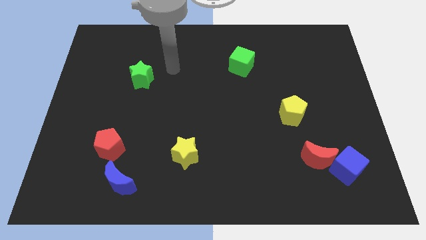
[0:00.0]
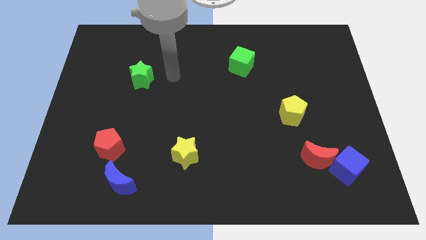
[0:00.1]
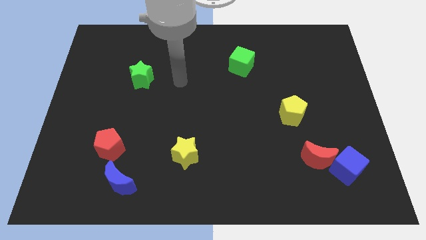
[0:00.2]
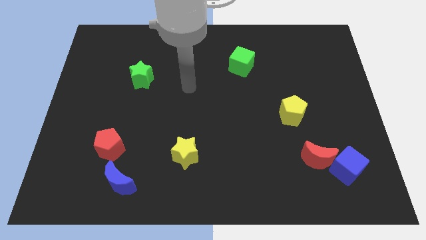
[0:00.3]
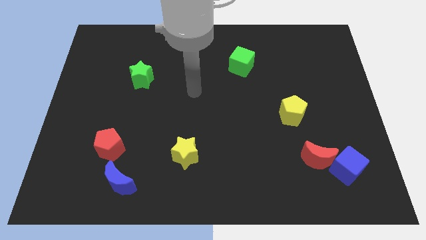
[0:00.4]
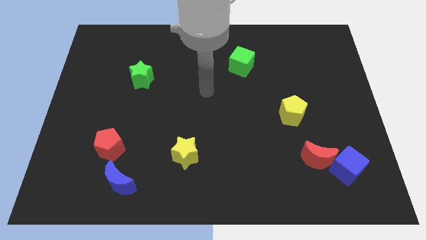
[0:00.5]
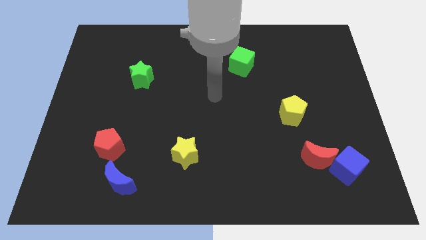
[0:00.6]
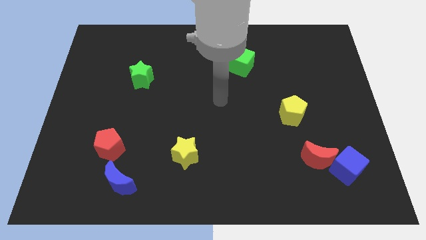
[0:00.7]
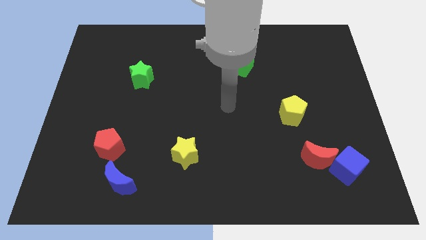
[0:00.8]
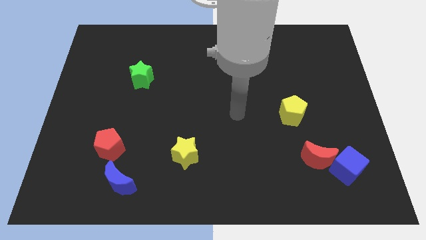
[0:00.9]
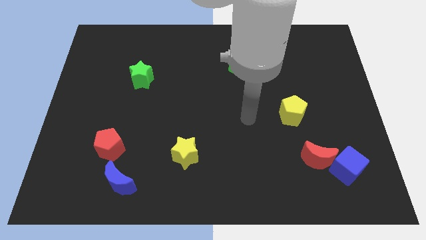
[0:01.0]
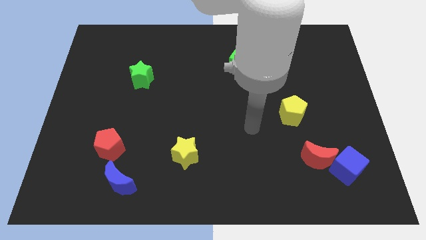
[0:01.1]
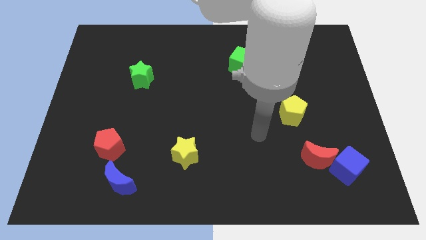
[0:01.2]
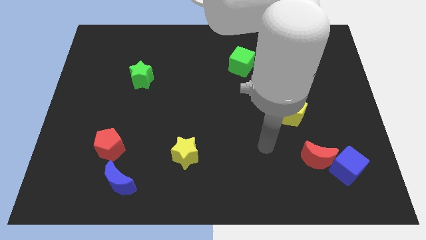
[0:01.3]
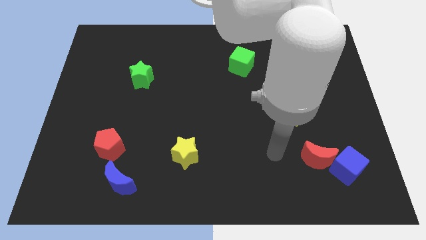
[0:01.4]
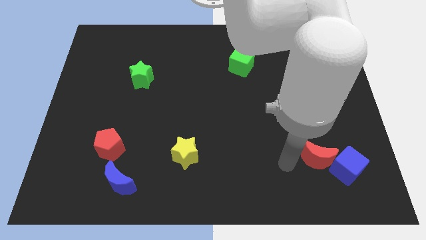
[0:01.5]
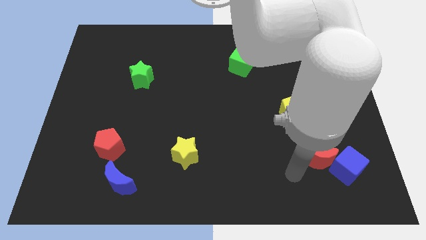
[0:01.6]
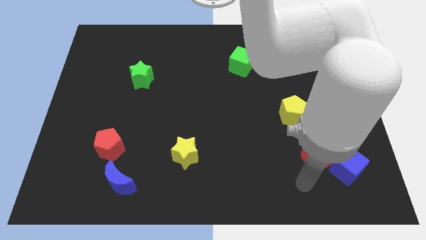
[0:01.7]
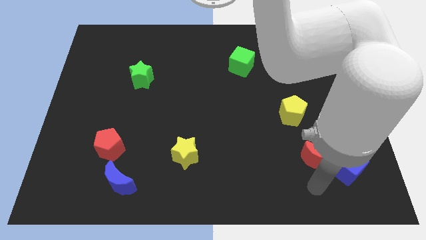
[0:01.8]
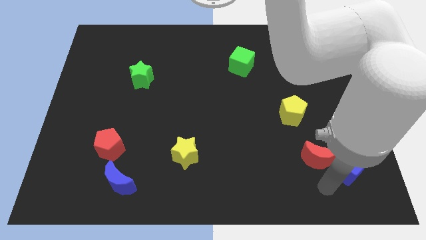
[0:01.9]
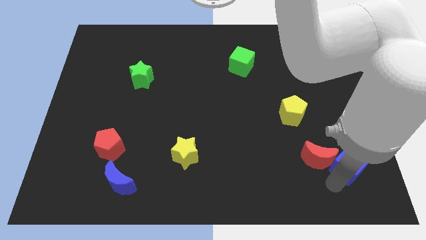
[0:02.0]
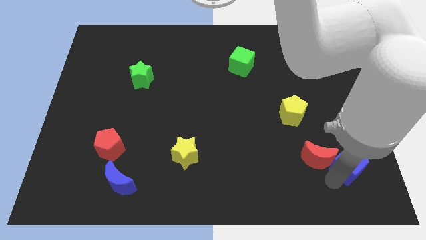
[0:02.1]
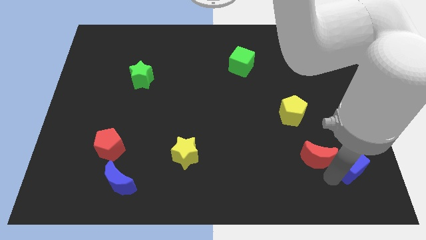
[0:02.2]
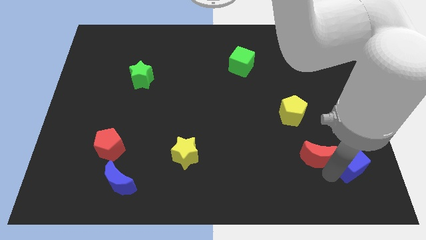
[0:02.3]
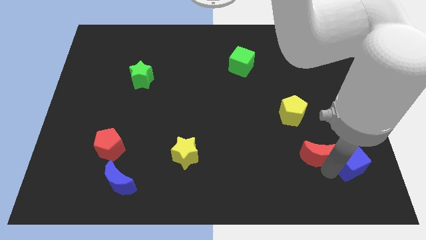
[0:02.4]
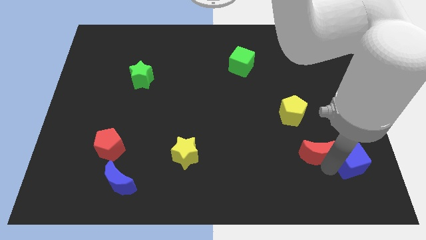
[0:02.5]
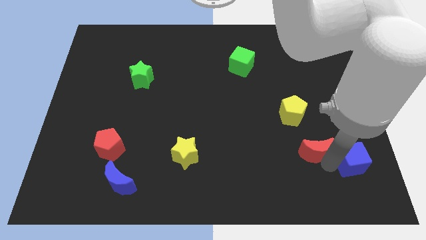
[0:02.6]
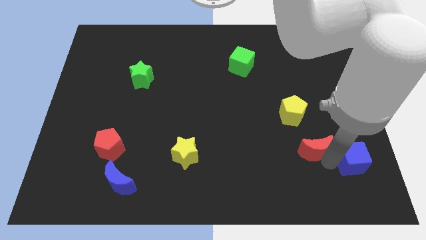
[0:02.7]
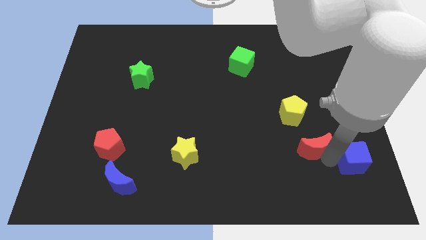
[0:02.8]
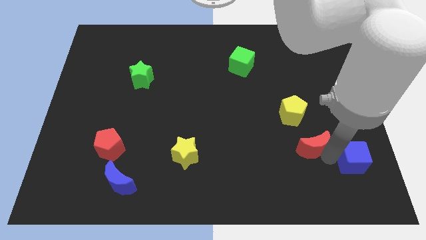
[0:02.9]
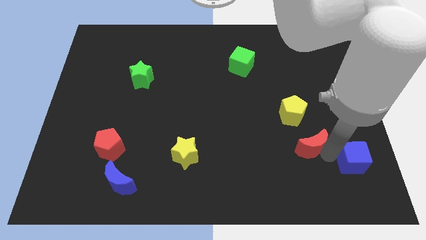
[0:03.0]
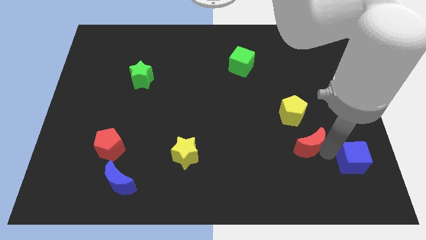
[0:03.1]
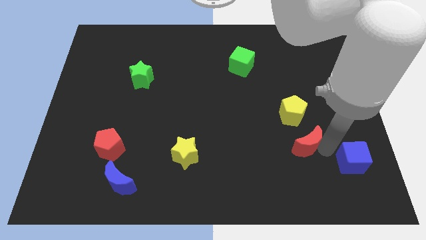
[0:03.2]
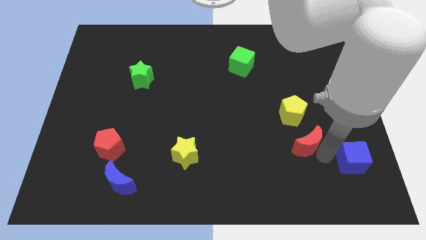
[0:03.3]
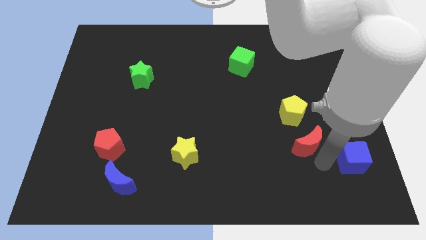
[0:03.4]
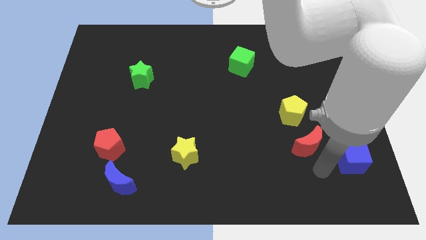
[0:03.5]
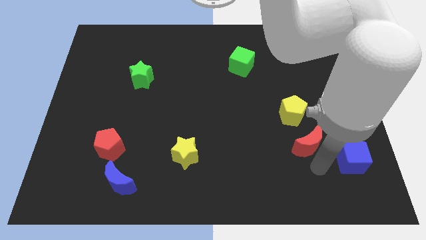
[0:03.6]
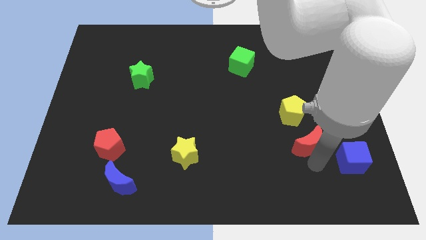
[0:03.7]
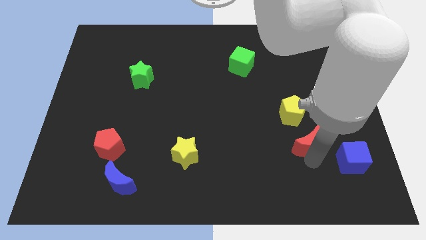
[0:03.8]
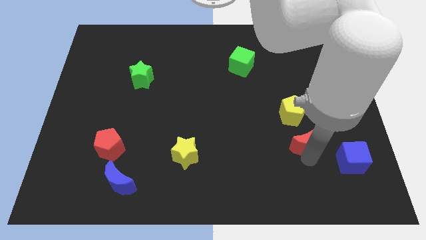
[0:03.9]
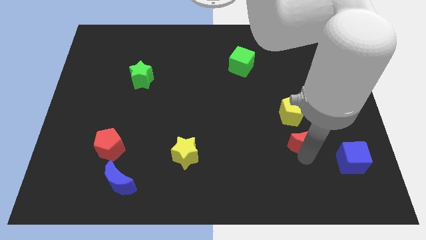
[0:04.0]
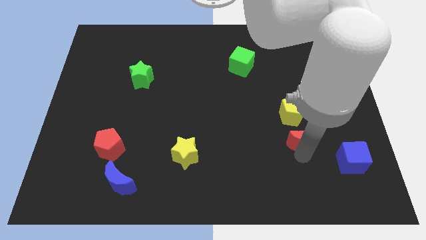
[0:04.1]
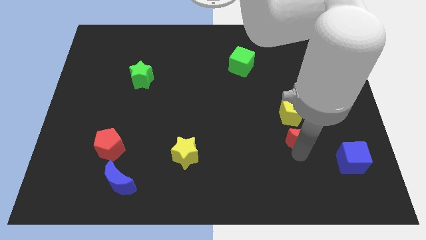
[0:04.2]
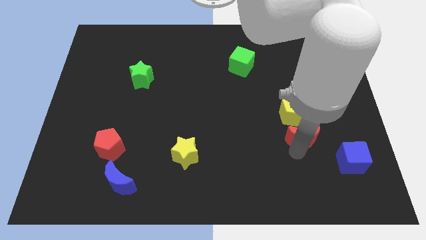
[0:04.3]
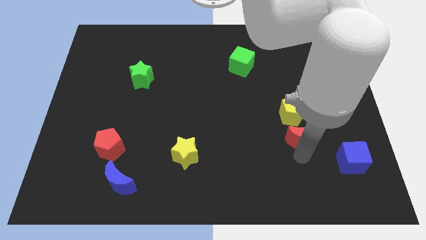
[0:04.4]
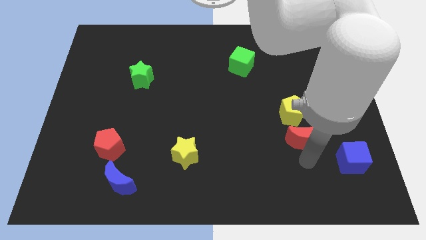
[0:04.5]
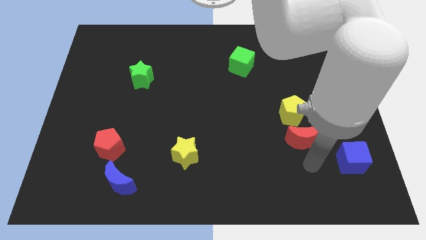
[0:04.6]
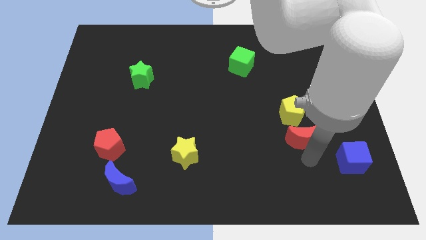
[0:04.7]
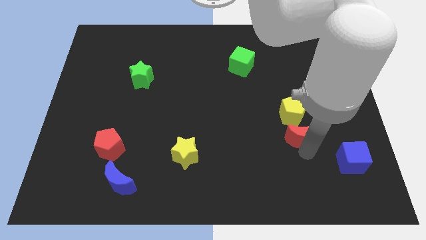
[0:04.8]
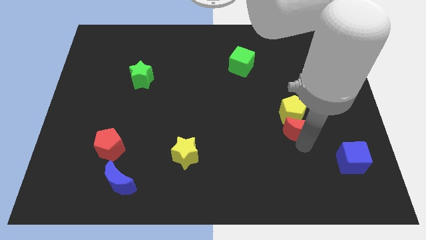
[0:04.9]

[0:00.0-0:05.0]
push the red moon close to the yellow pentagon
